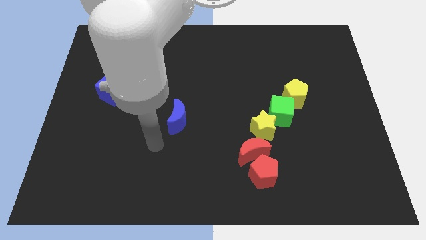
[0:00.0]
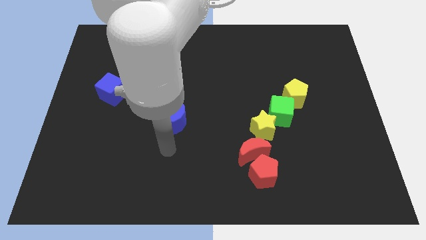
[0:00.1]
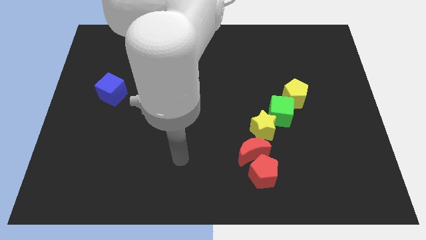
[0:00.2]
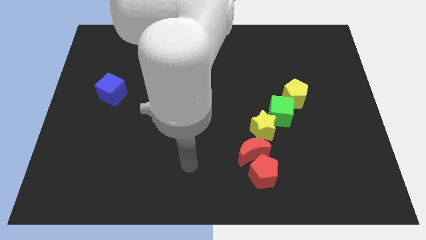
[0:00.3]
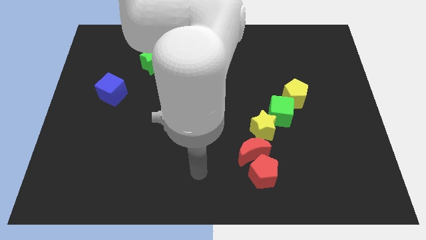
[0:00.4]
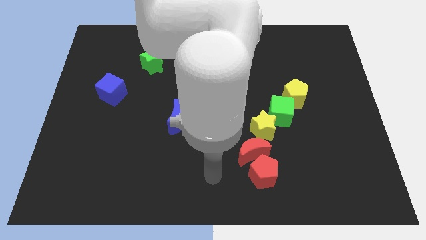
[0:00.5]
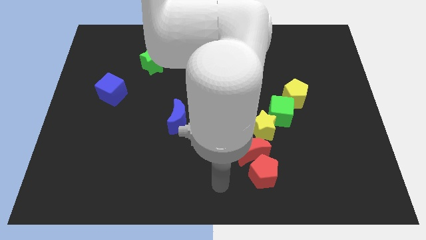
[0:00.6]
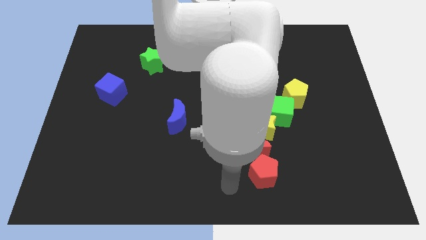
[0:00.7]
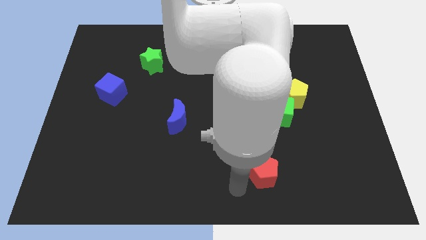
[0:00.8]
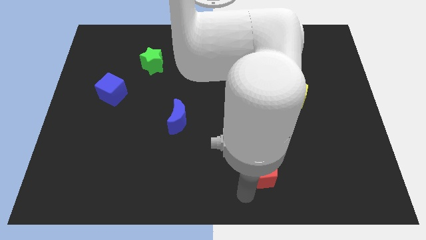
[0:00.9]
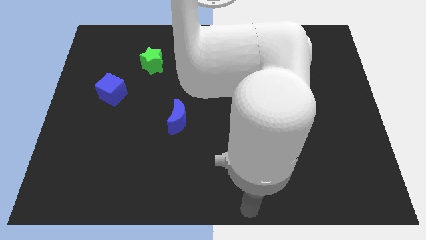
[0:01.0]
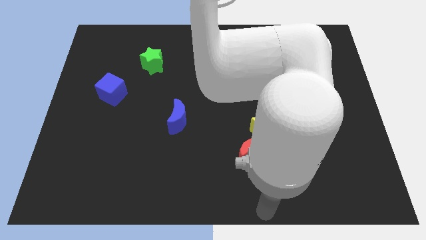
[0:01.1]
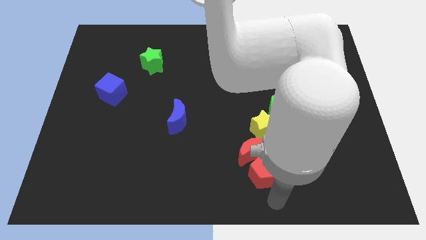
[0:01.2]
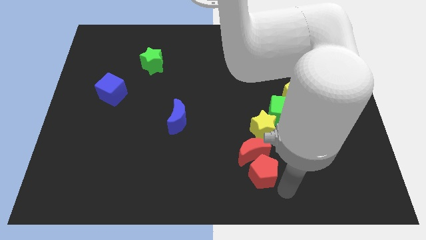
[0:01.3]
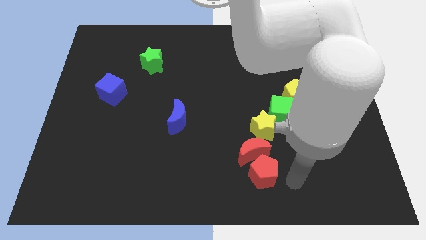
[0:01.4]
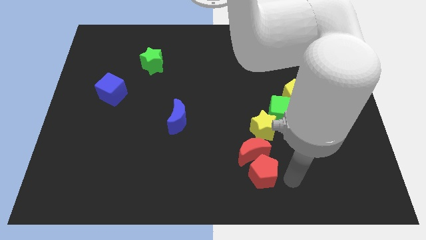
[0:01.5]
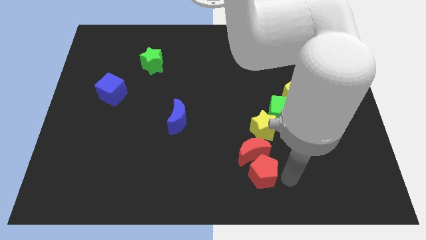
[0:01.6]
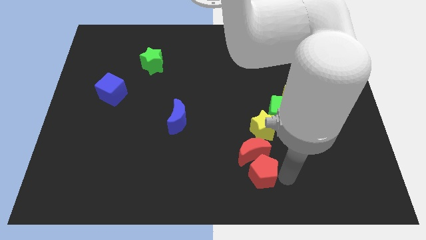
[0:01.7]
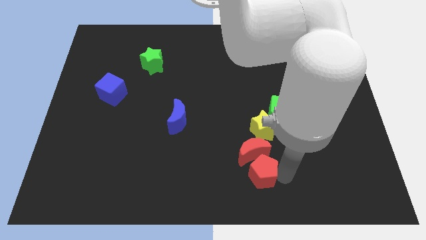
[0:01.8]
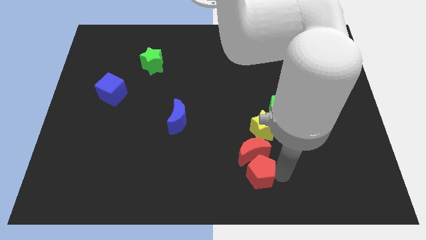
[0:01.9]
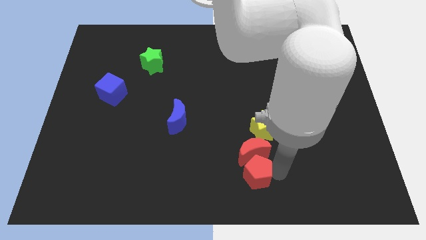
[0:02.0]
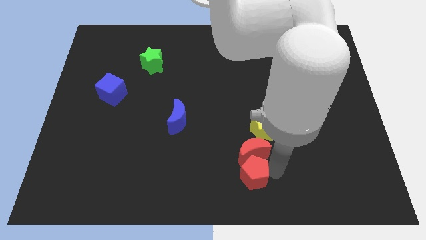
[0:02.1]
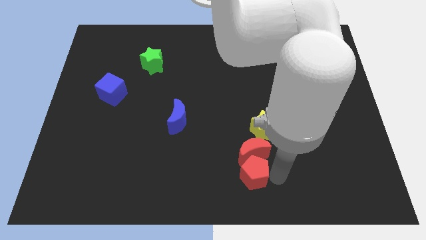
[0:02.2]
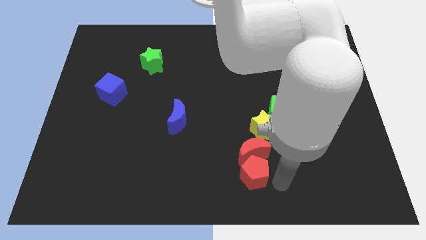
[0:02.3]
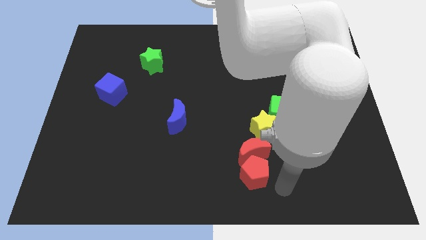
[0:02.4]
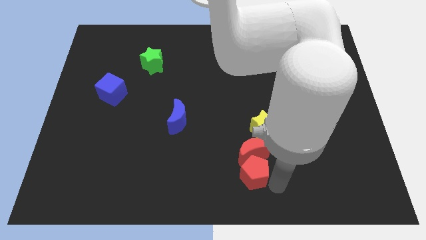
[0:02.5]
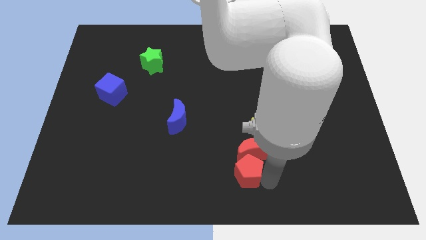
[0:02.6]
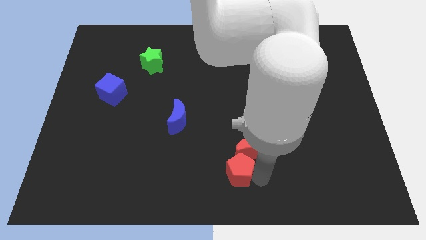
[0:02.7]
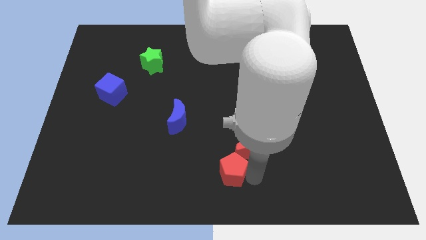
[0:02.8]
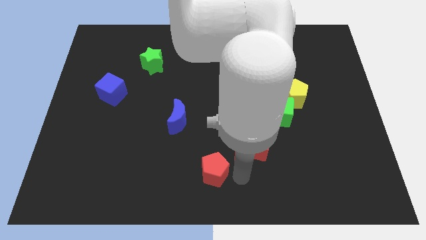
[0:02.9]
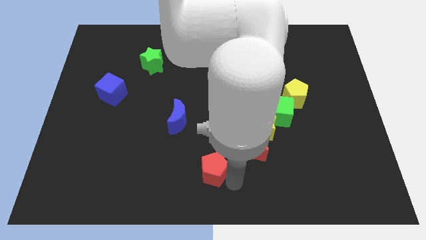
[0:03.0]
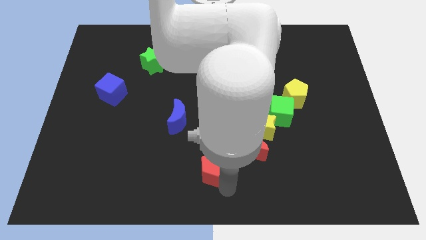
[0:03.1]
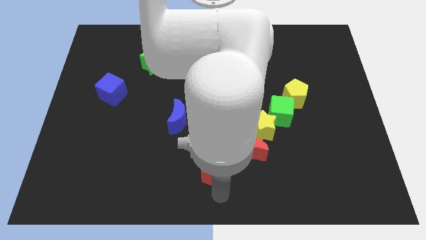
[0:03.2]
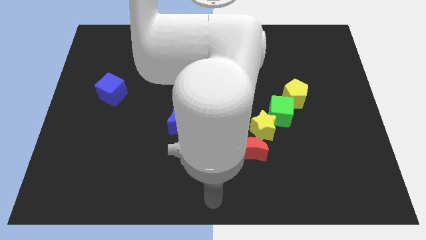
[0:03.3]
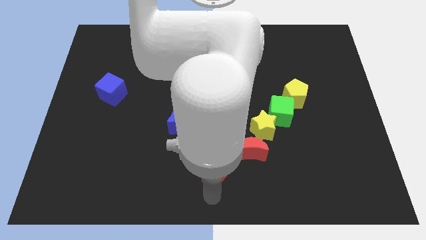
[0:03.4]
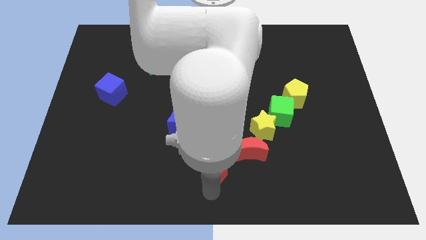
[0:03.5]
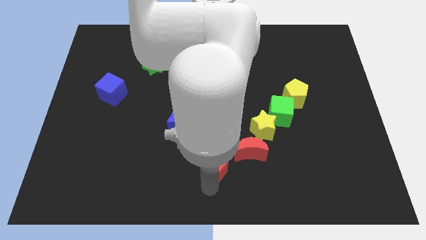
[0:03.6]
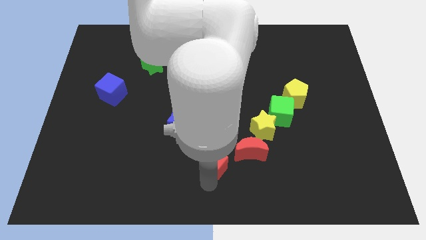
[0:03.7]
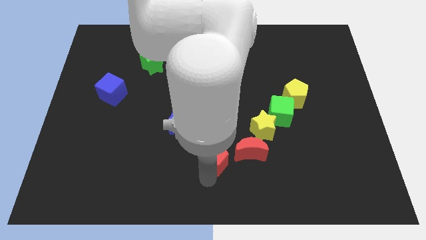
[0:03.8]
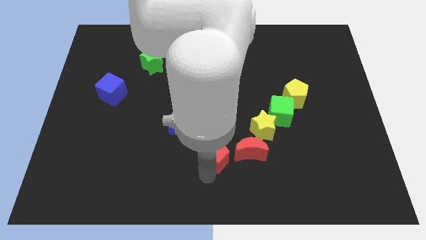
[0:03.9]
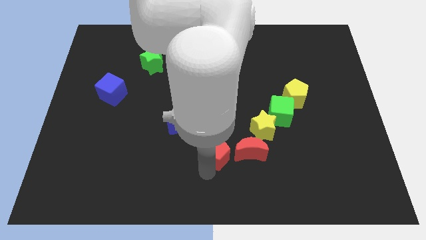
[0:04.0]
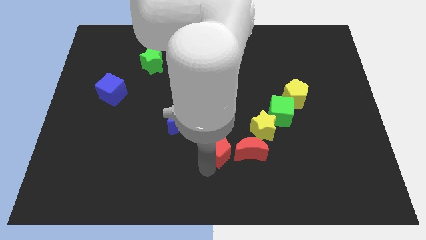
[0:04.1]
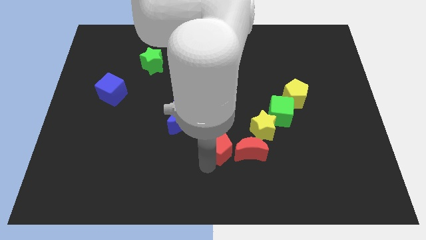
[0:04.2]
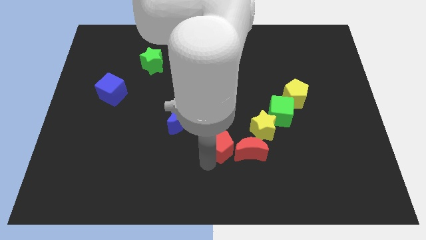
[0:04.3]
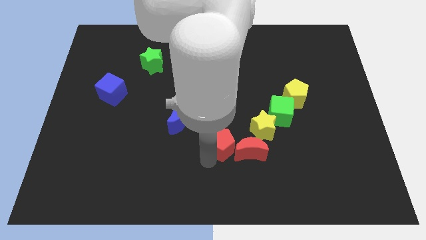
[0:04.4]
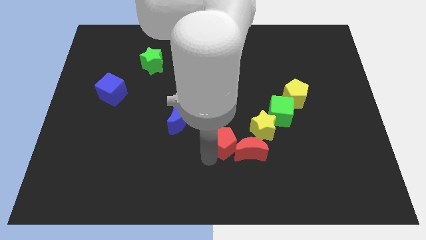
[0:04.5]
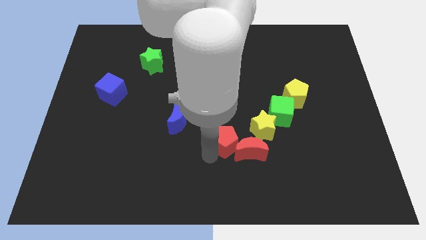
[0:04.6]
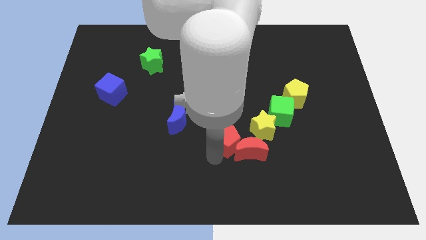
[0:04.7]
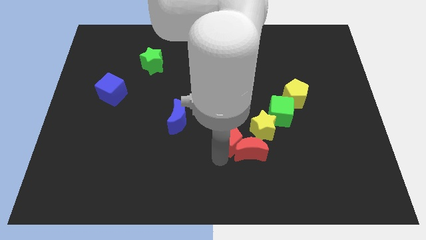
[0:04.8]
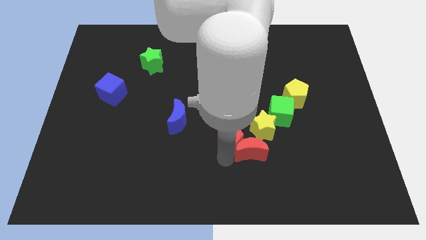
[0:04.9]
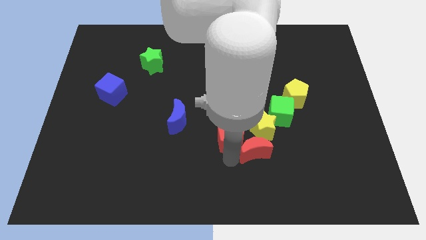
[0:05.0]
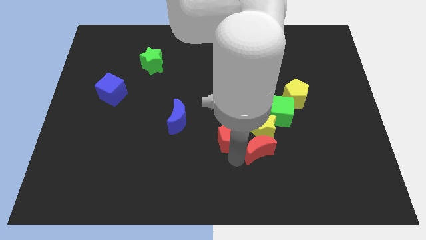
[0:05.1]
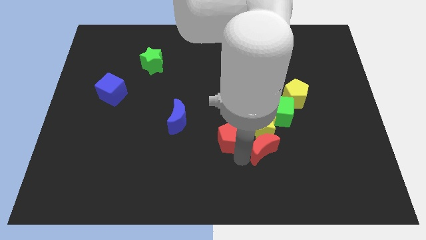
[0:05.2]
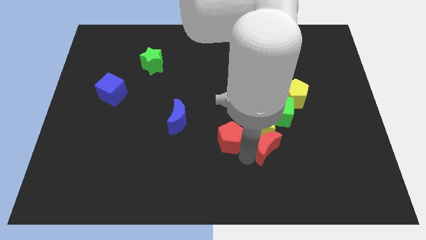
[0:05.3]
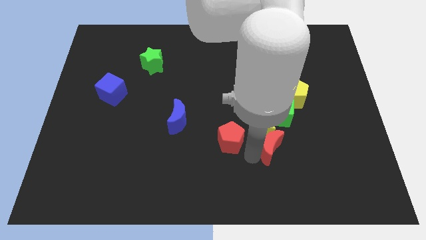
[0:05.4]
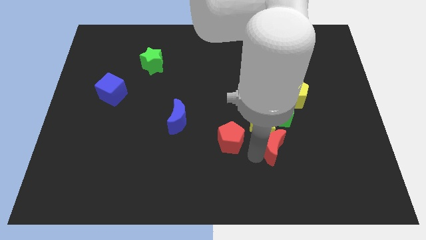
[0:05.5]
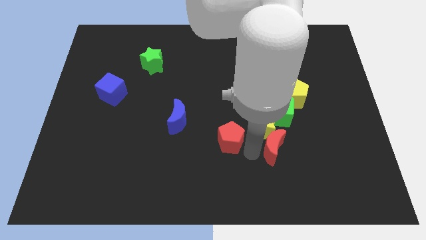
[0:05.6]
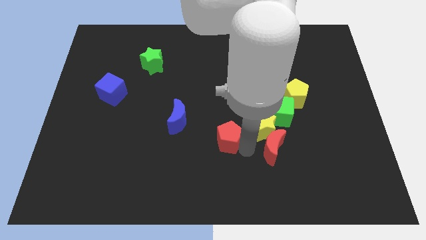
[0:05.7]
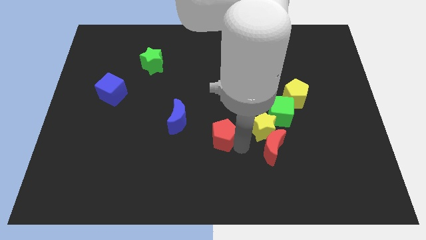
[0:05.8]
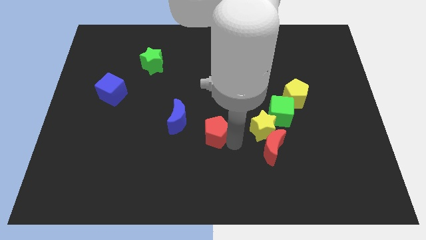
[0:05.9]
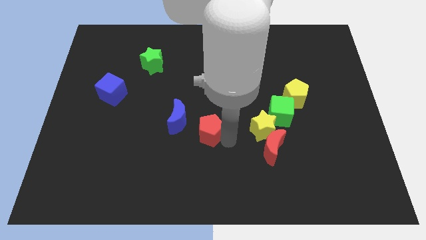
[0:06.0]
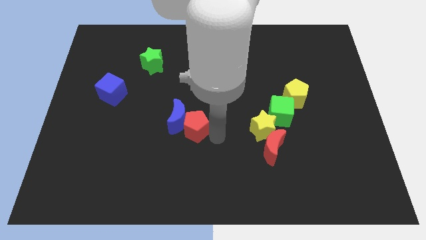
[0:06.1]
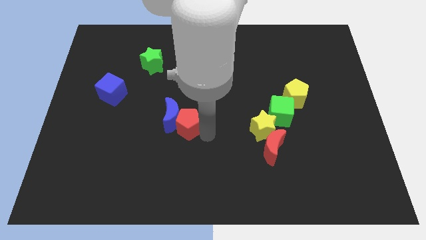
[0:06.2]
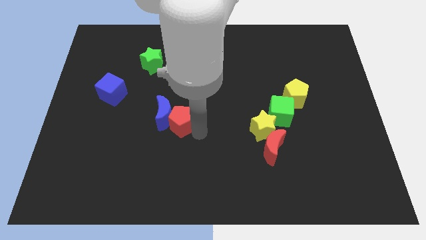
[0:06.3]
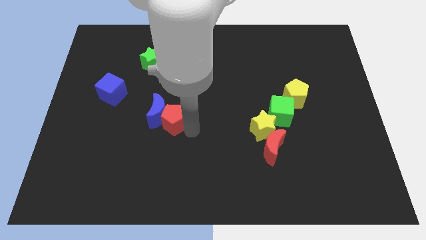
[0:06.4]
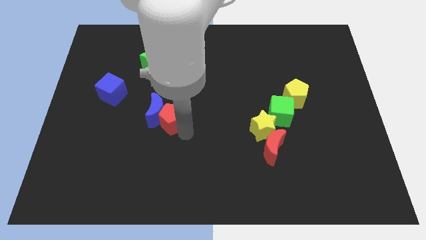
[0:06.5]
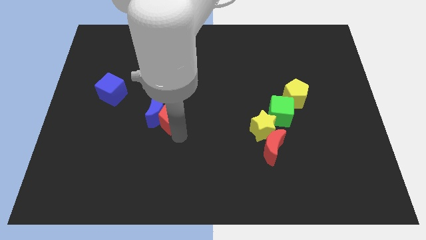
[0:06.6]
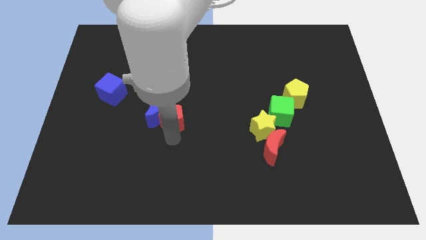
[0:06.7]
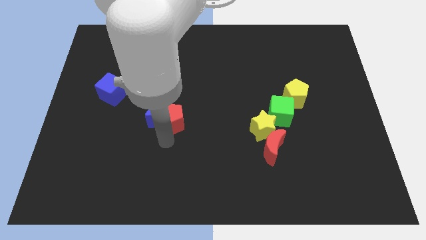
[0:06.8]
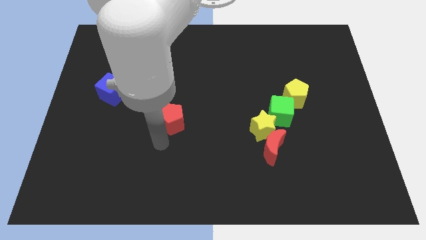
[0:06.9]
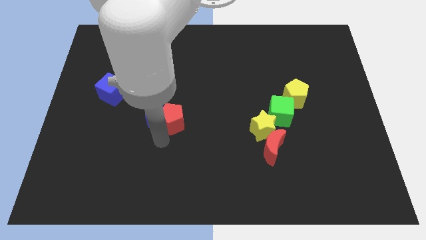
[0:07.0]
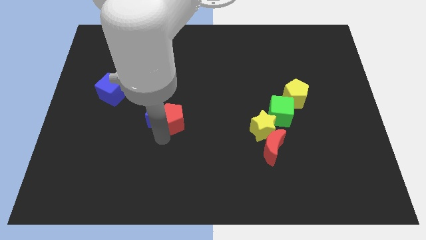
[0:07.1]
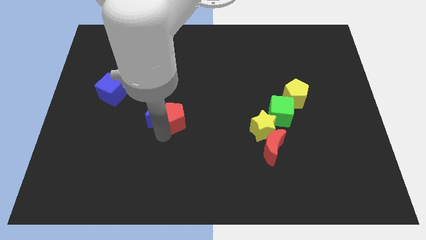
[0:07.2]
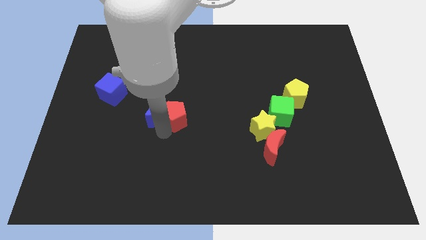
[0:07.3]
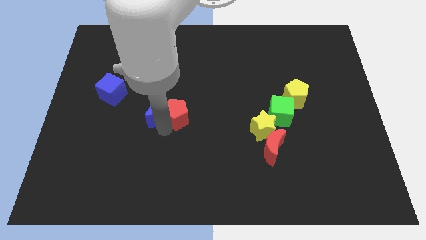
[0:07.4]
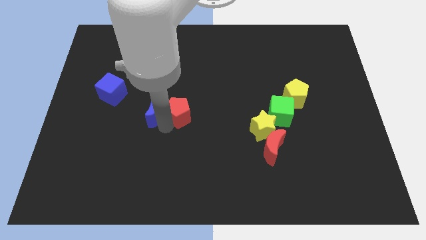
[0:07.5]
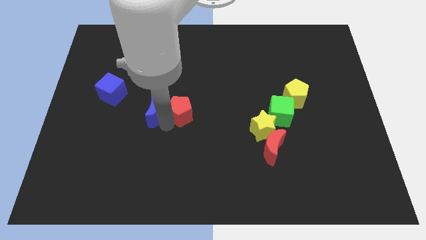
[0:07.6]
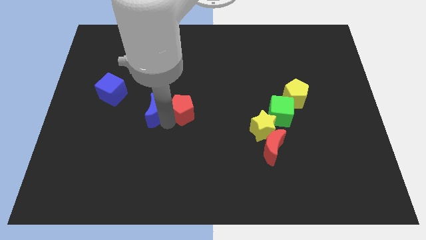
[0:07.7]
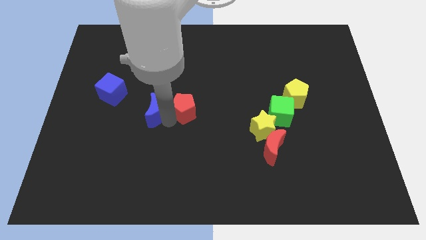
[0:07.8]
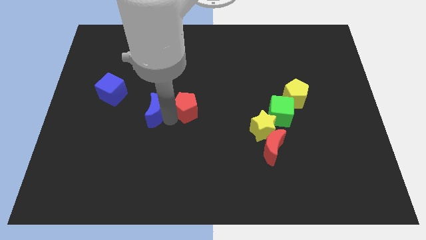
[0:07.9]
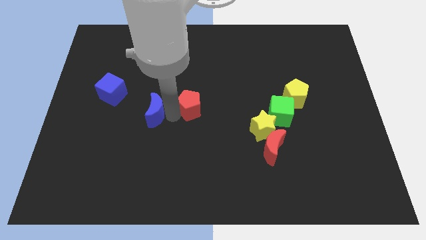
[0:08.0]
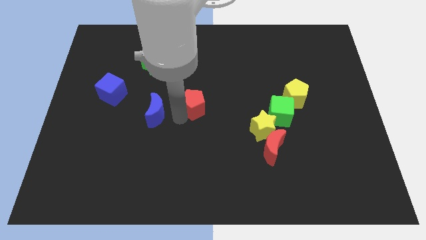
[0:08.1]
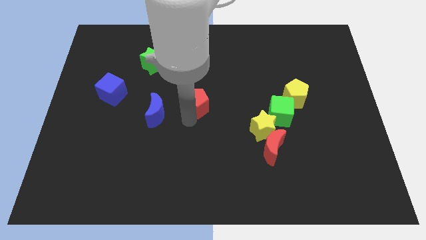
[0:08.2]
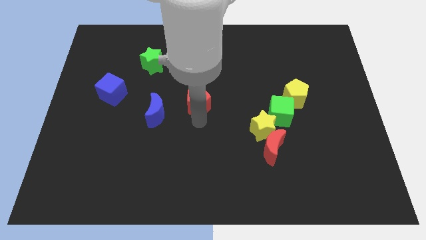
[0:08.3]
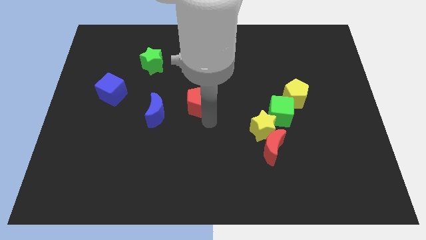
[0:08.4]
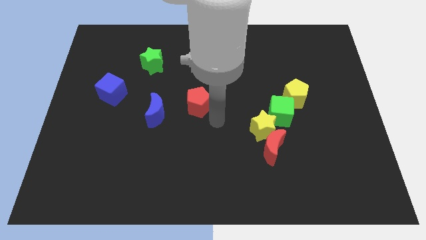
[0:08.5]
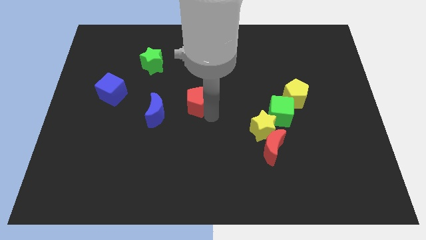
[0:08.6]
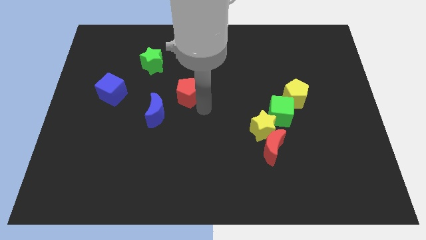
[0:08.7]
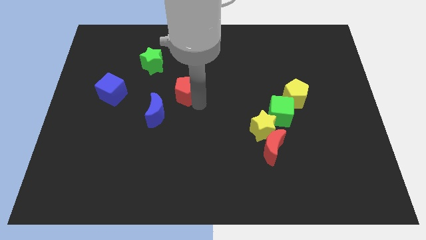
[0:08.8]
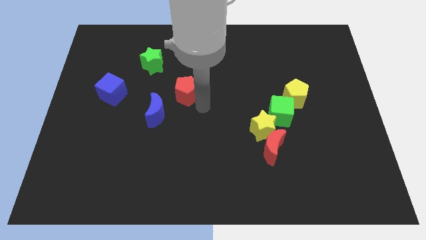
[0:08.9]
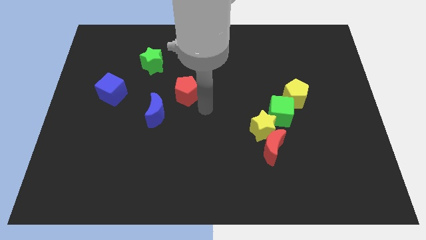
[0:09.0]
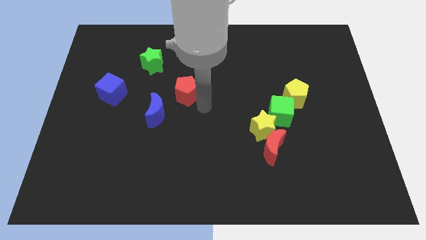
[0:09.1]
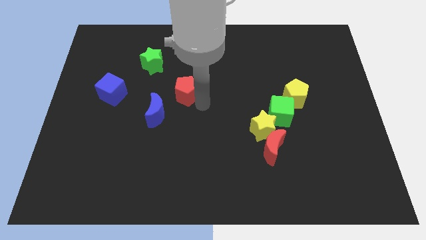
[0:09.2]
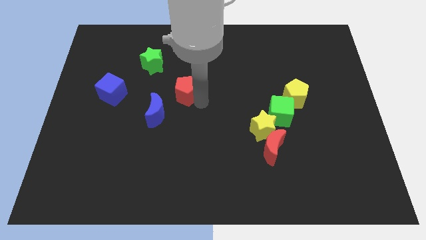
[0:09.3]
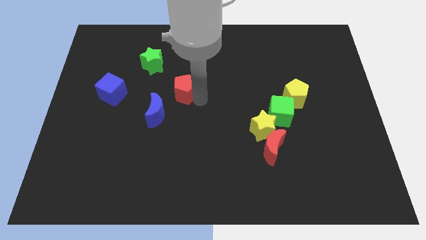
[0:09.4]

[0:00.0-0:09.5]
put the red pentagon to the bottom right of the green star
